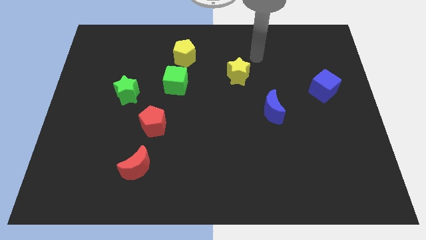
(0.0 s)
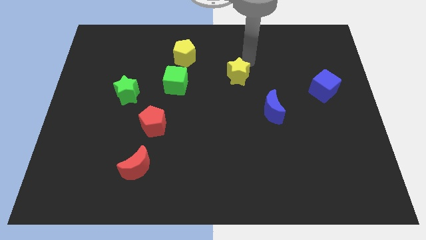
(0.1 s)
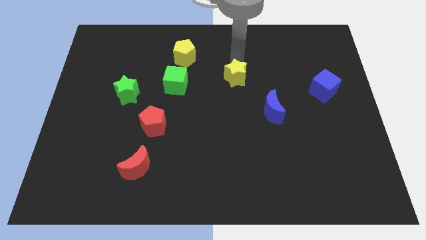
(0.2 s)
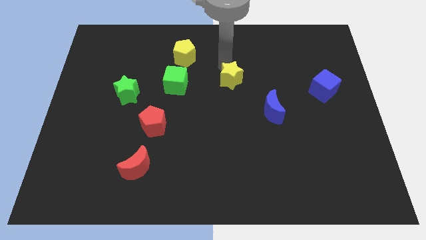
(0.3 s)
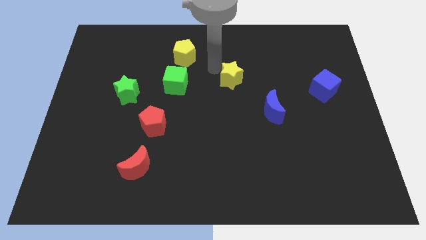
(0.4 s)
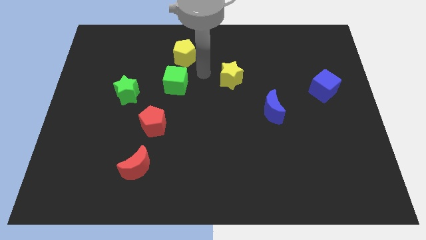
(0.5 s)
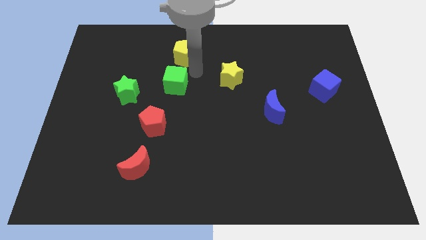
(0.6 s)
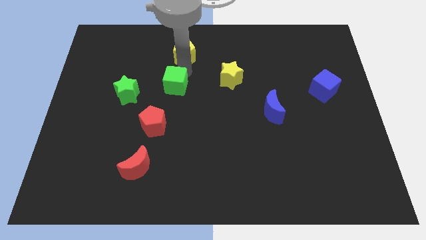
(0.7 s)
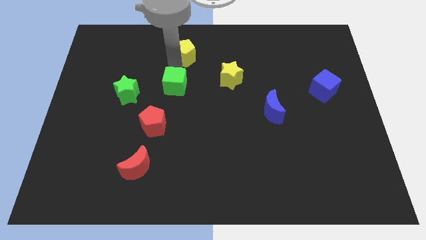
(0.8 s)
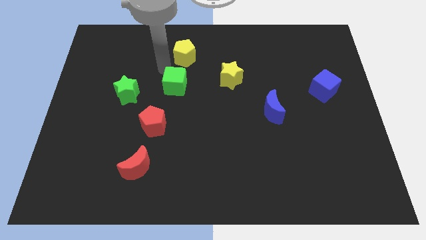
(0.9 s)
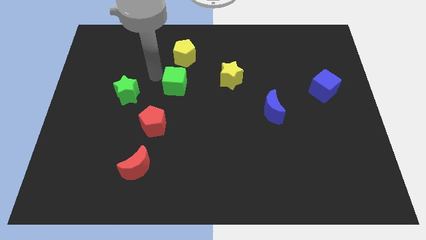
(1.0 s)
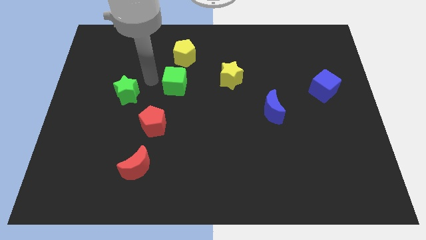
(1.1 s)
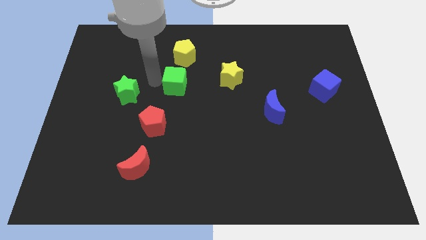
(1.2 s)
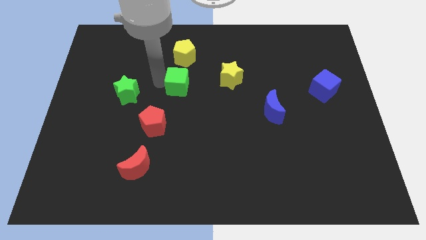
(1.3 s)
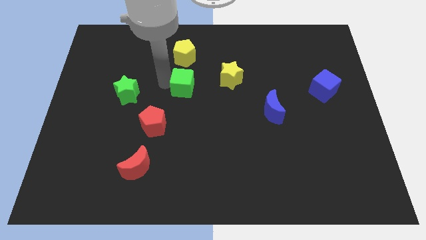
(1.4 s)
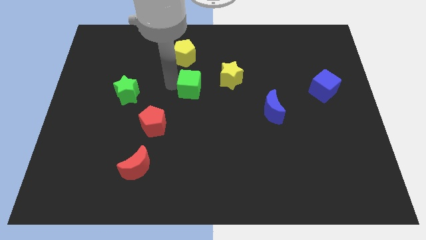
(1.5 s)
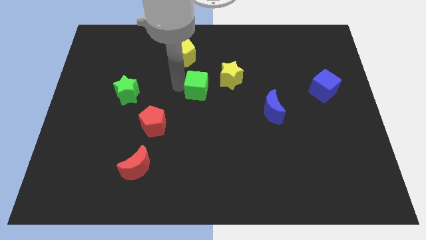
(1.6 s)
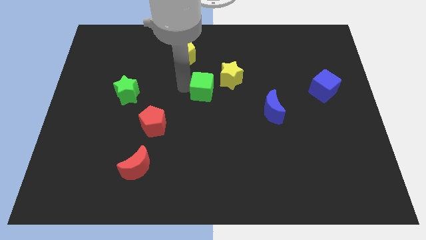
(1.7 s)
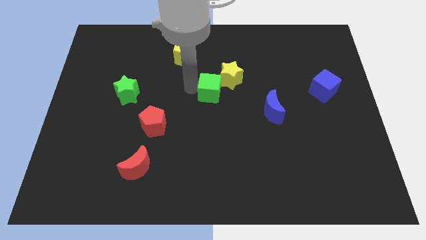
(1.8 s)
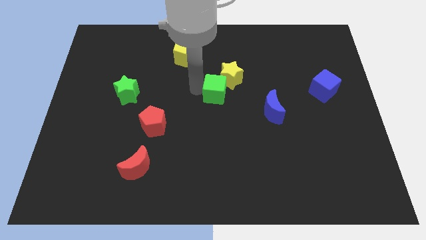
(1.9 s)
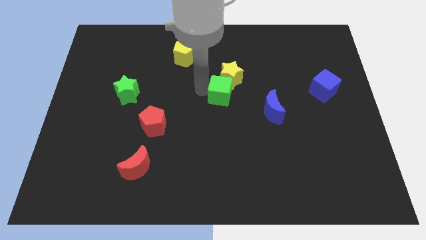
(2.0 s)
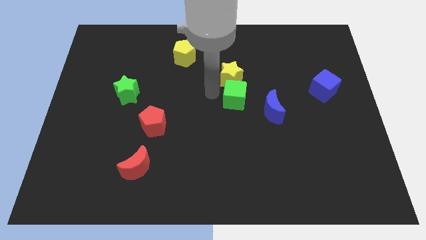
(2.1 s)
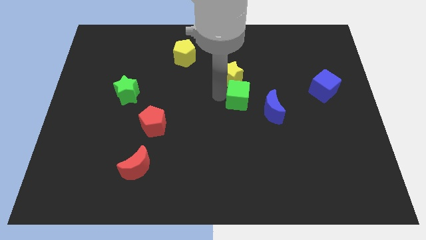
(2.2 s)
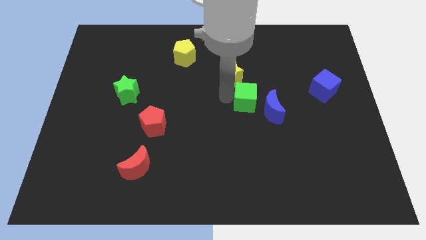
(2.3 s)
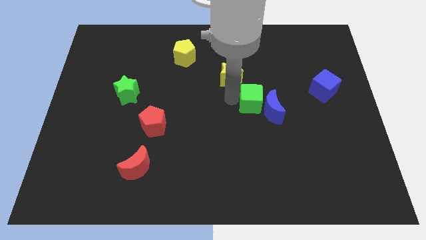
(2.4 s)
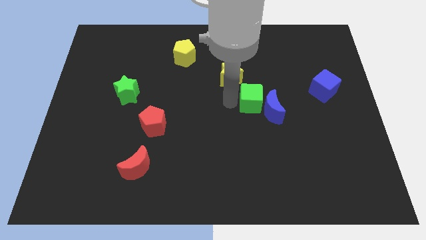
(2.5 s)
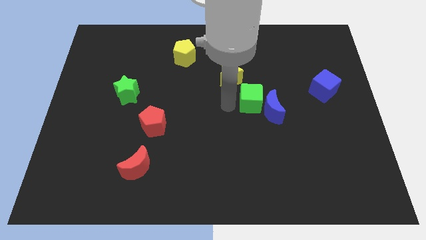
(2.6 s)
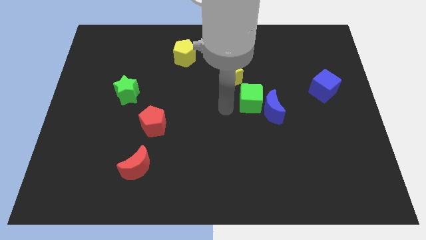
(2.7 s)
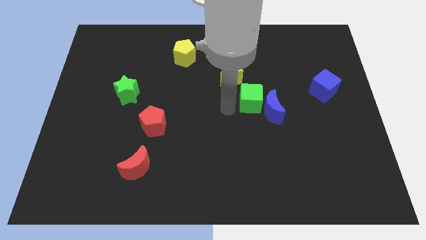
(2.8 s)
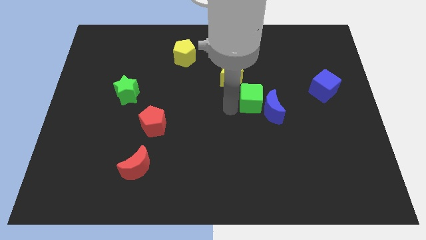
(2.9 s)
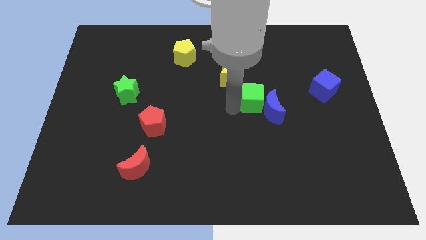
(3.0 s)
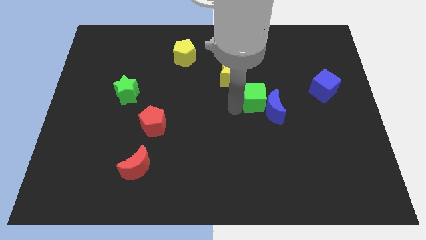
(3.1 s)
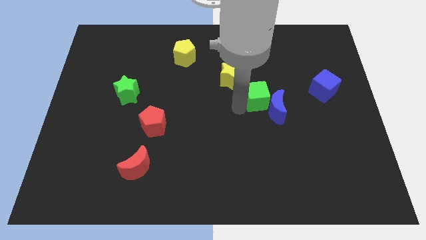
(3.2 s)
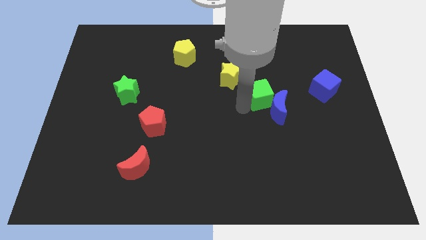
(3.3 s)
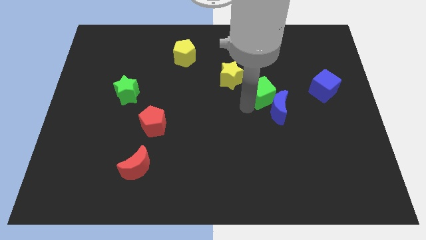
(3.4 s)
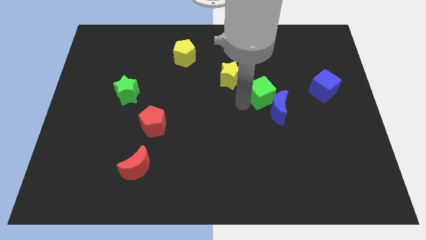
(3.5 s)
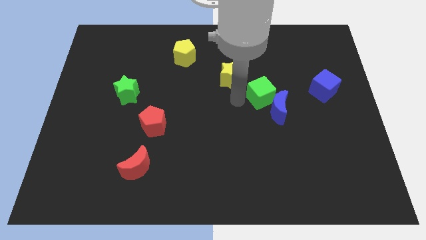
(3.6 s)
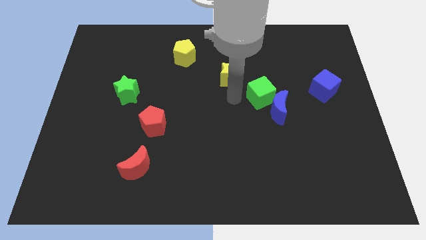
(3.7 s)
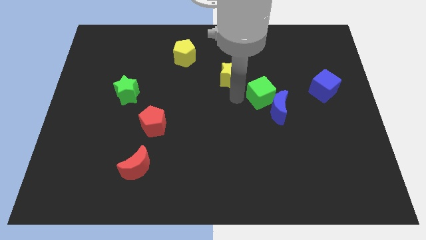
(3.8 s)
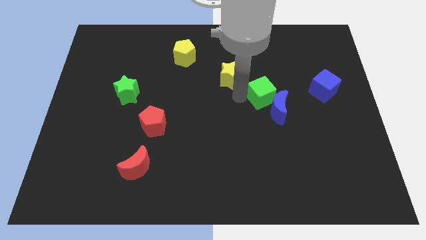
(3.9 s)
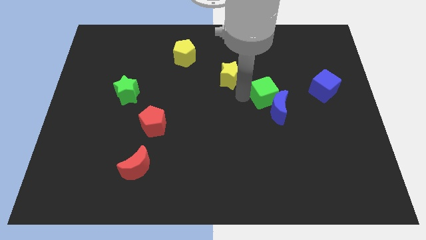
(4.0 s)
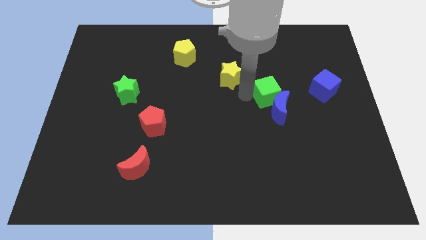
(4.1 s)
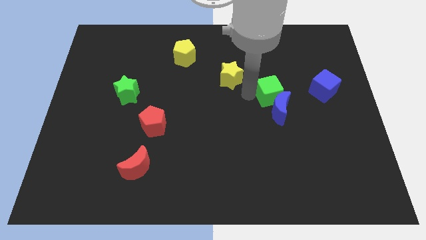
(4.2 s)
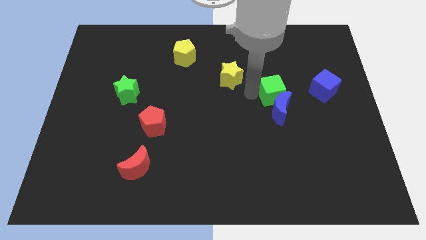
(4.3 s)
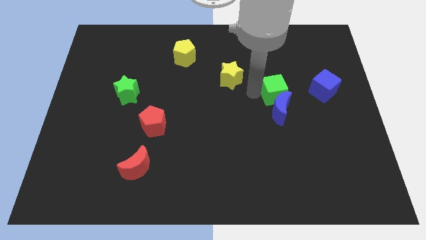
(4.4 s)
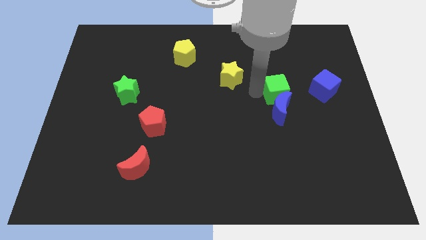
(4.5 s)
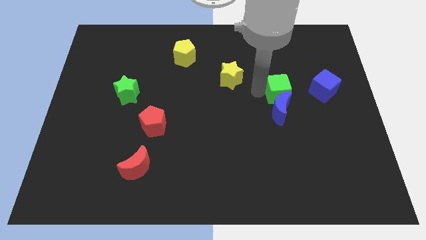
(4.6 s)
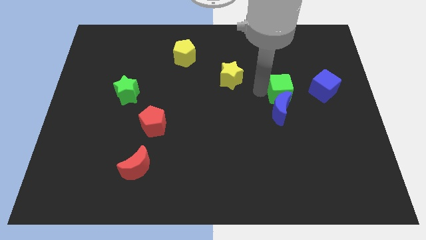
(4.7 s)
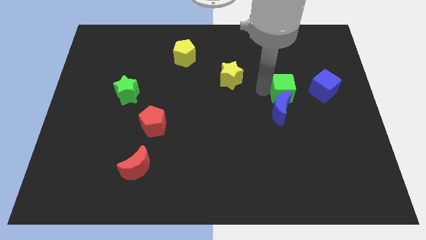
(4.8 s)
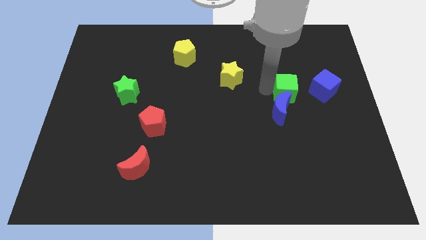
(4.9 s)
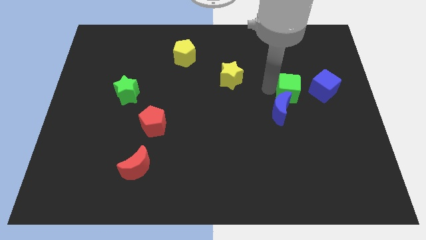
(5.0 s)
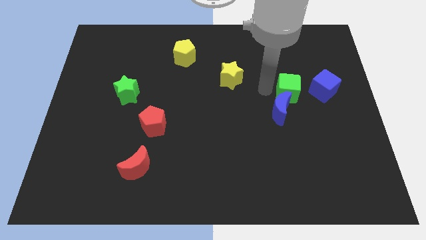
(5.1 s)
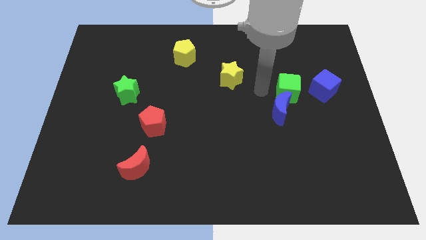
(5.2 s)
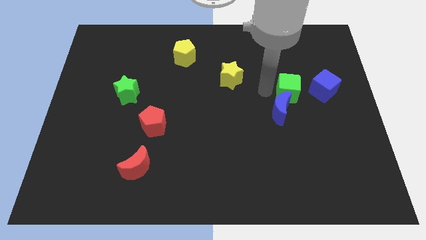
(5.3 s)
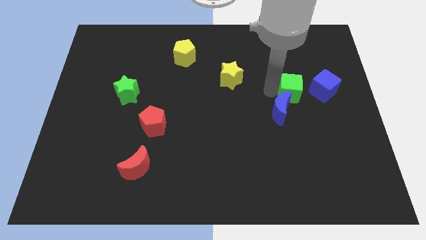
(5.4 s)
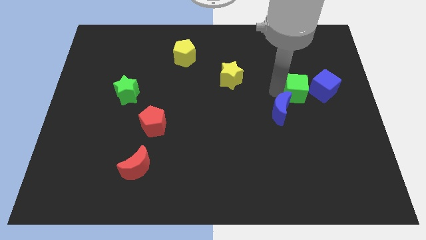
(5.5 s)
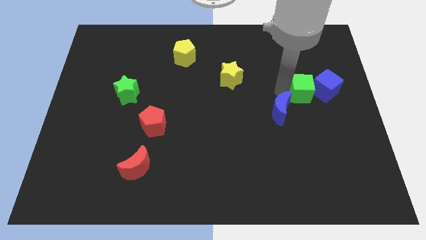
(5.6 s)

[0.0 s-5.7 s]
push the green cube towards the blue cube
